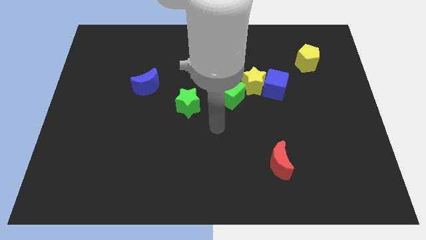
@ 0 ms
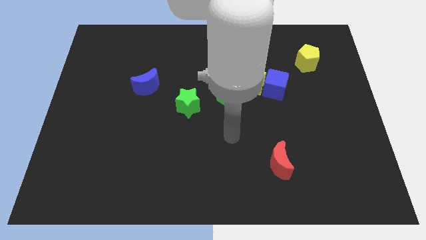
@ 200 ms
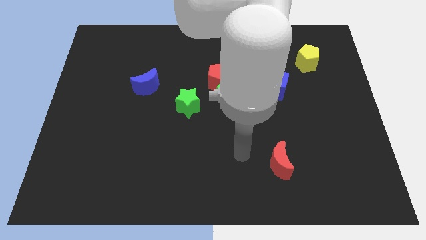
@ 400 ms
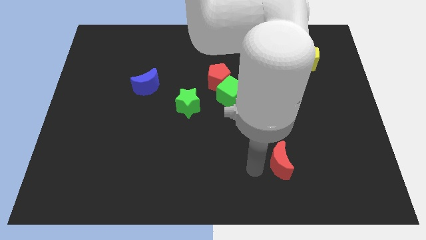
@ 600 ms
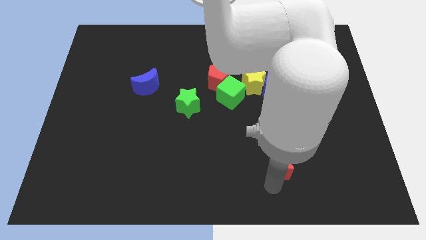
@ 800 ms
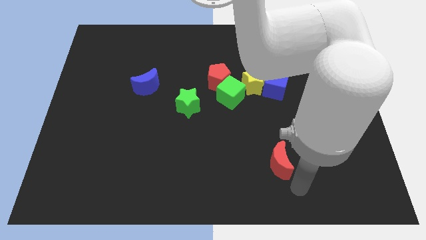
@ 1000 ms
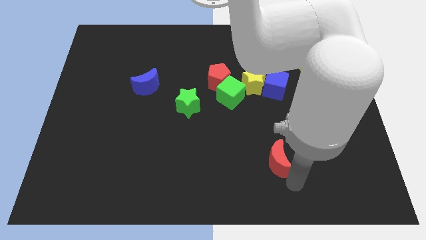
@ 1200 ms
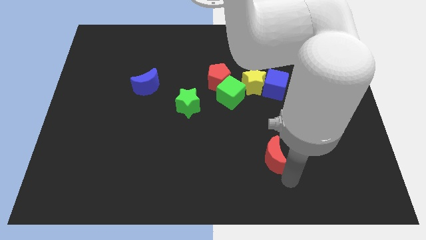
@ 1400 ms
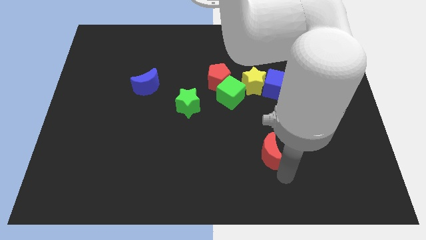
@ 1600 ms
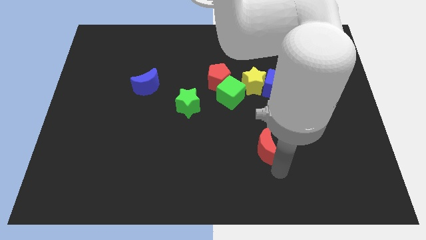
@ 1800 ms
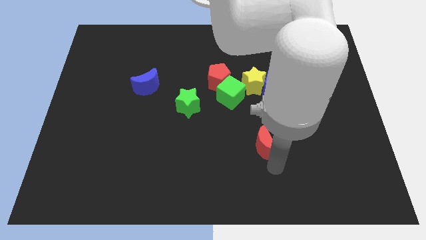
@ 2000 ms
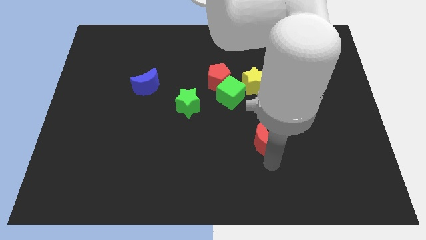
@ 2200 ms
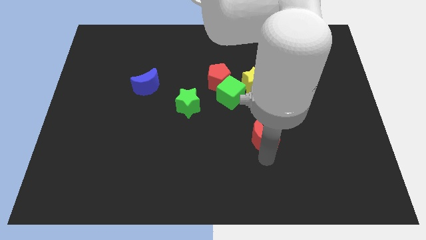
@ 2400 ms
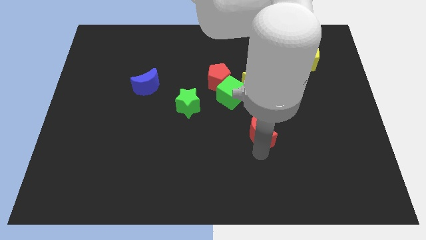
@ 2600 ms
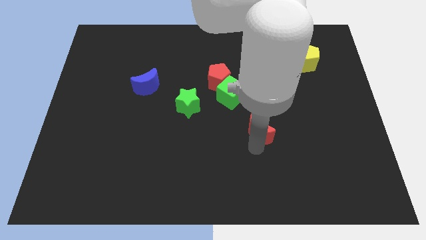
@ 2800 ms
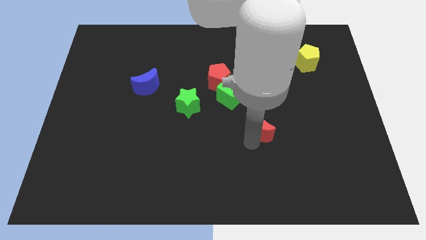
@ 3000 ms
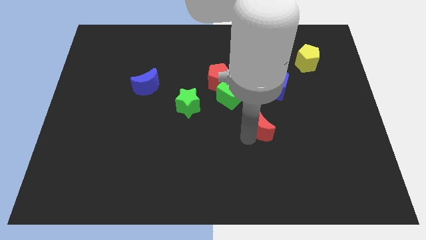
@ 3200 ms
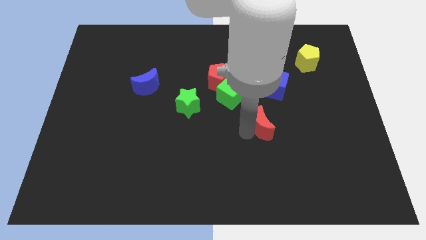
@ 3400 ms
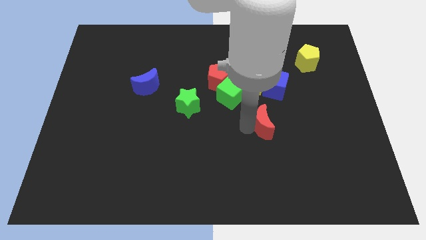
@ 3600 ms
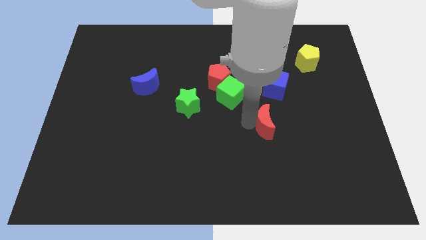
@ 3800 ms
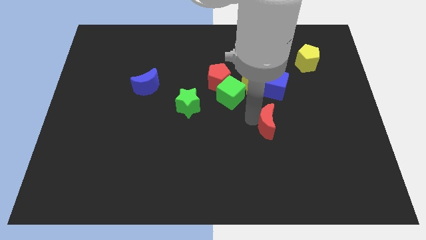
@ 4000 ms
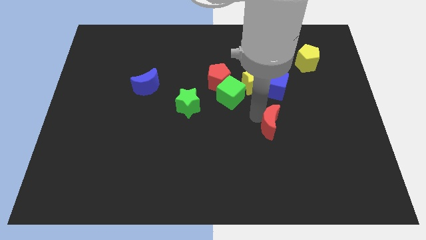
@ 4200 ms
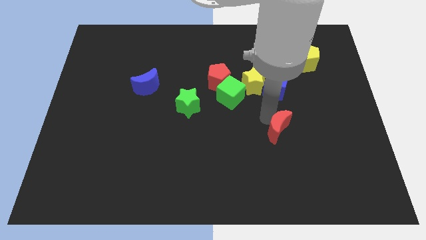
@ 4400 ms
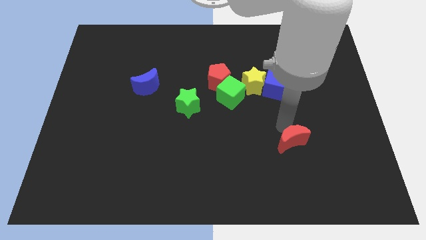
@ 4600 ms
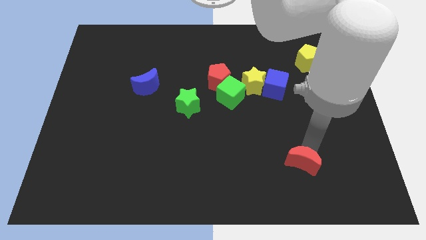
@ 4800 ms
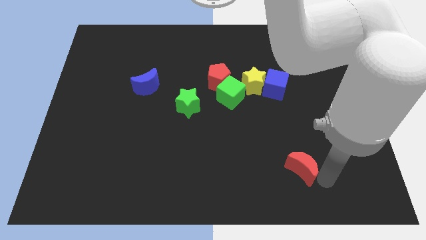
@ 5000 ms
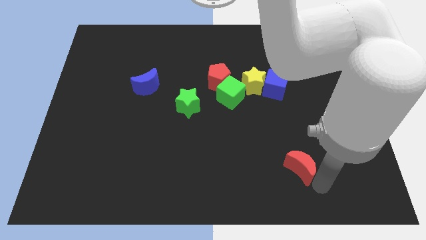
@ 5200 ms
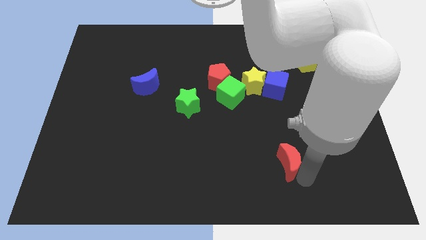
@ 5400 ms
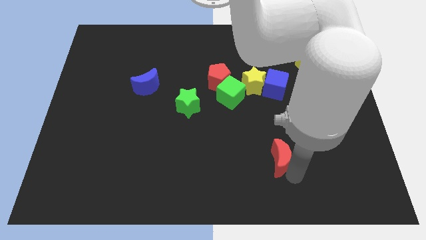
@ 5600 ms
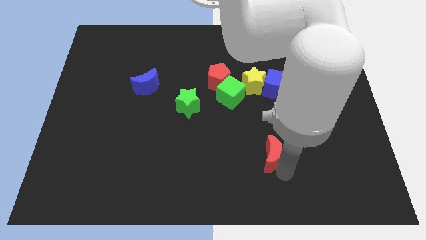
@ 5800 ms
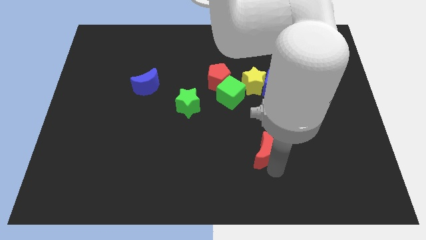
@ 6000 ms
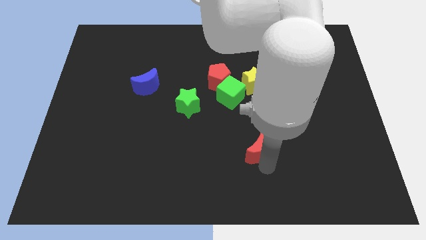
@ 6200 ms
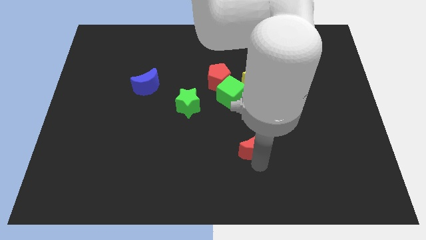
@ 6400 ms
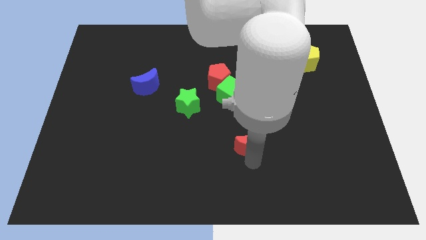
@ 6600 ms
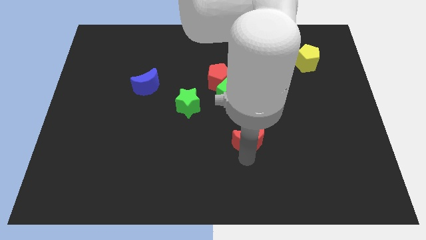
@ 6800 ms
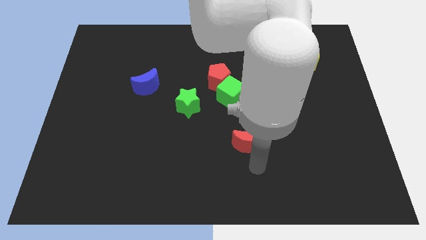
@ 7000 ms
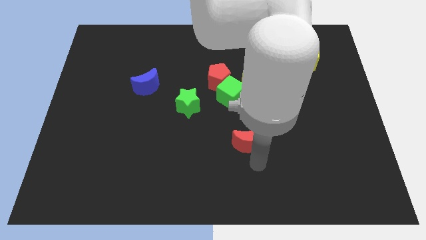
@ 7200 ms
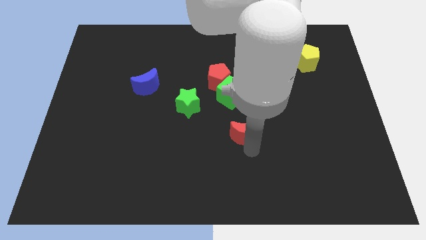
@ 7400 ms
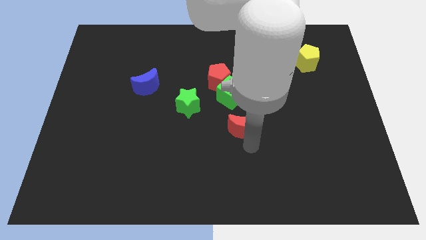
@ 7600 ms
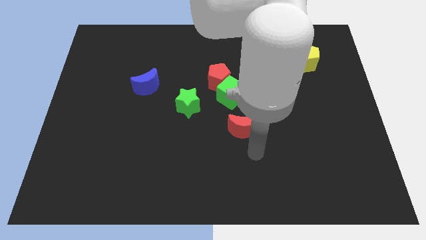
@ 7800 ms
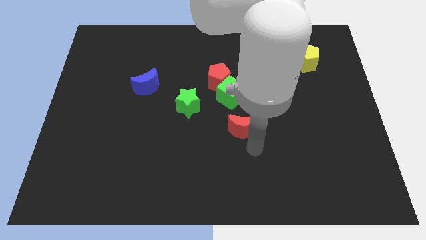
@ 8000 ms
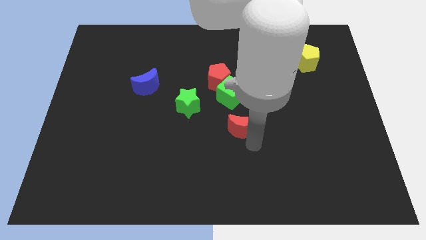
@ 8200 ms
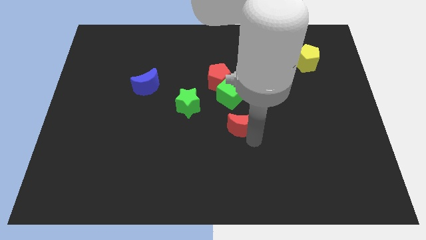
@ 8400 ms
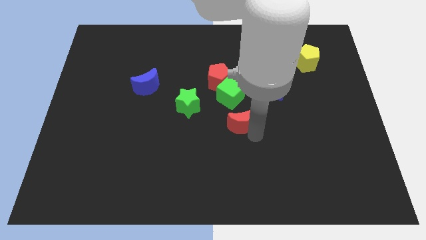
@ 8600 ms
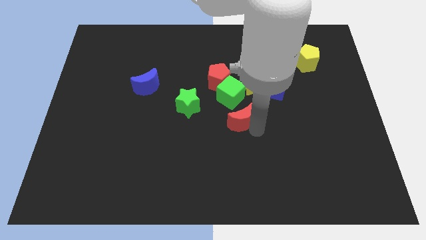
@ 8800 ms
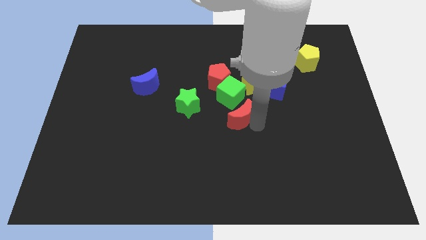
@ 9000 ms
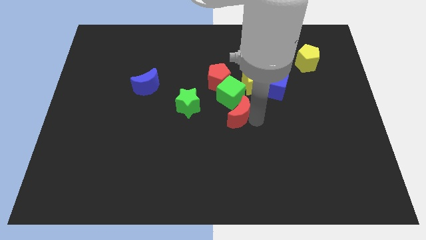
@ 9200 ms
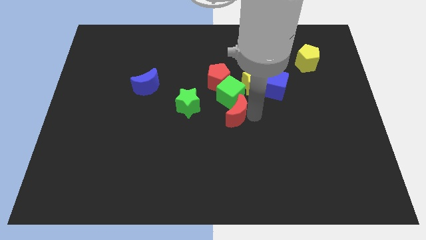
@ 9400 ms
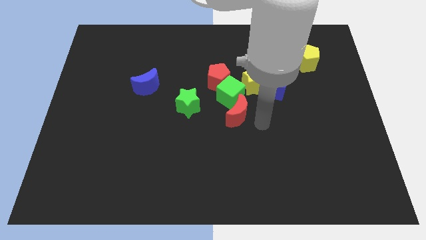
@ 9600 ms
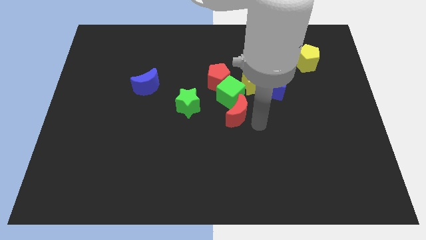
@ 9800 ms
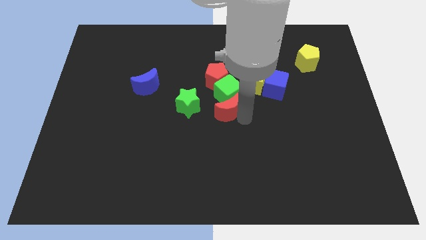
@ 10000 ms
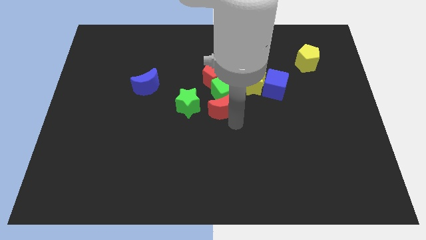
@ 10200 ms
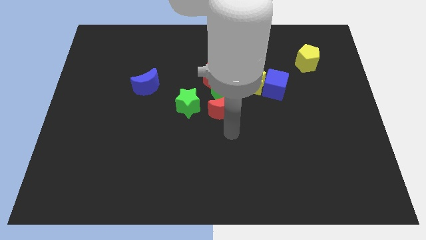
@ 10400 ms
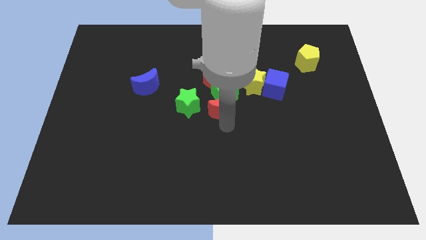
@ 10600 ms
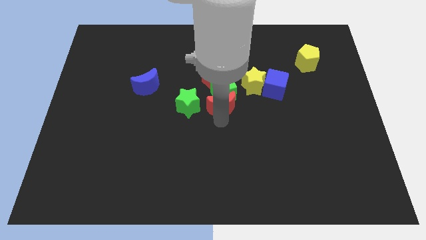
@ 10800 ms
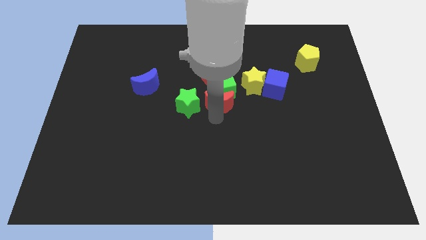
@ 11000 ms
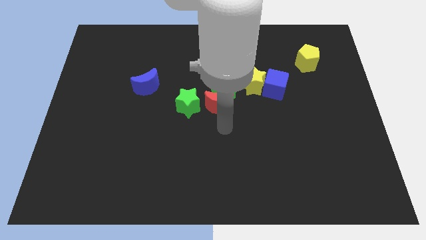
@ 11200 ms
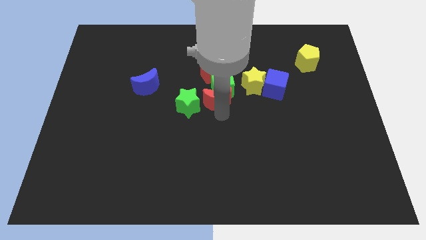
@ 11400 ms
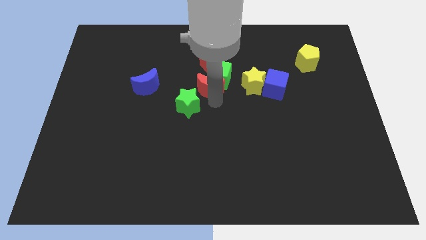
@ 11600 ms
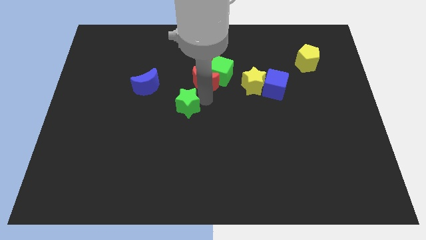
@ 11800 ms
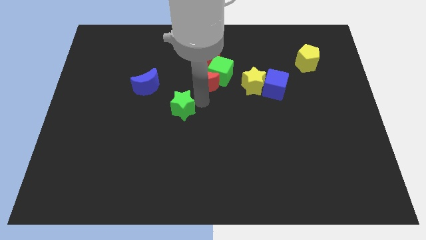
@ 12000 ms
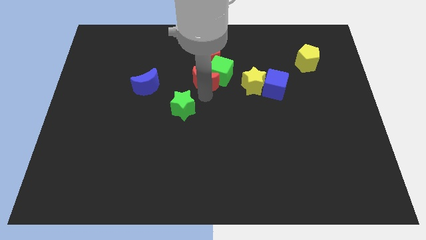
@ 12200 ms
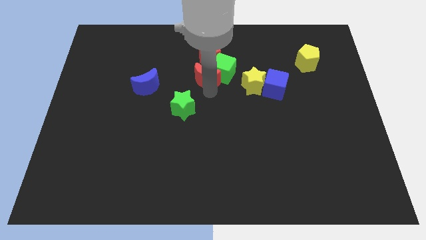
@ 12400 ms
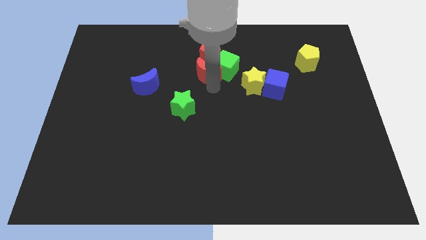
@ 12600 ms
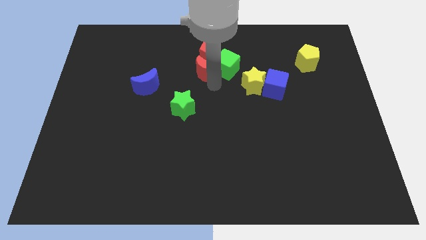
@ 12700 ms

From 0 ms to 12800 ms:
put the red moon to the red pentagon
